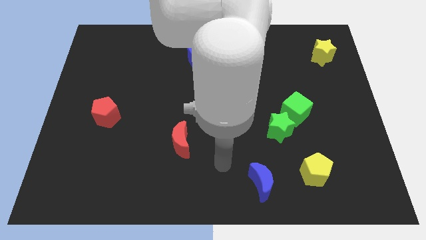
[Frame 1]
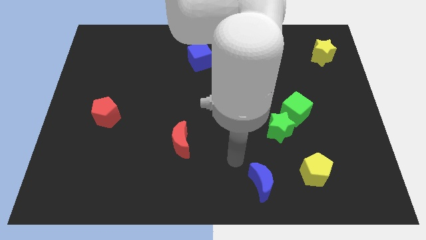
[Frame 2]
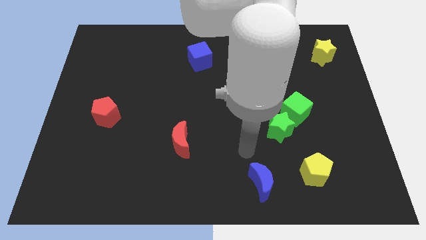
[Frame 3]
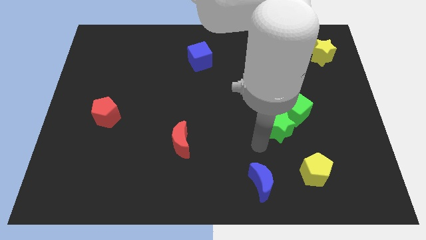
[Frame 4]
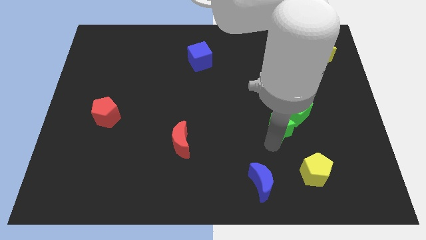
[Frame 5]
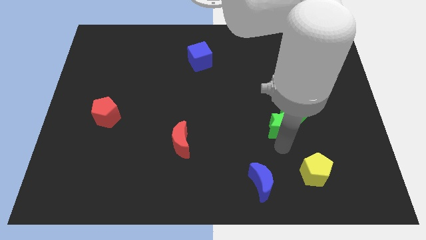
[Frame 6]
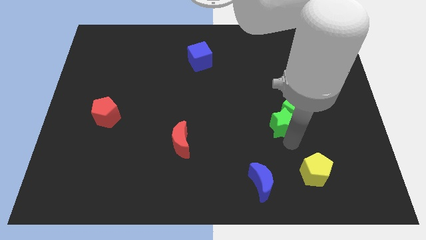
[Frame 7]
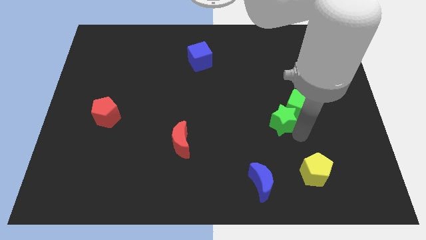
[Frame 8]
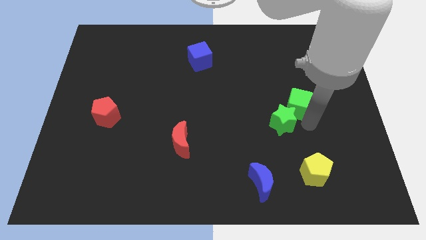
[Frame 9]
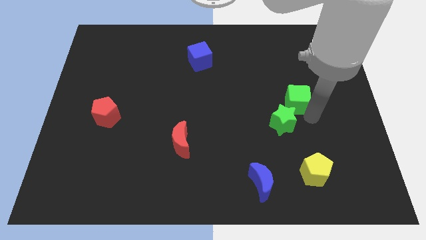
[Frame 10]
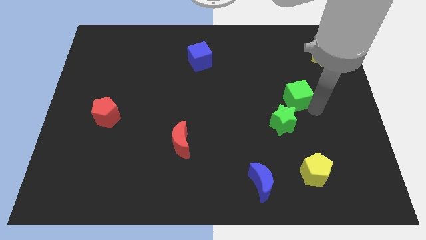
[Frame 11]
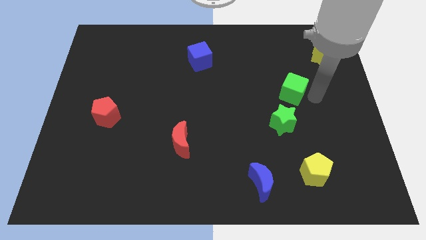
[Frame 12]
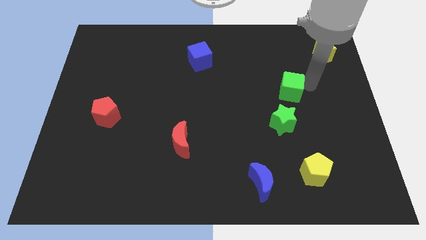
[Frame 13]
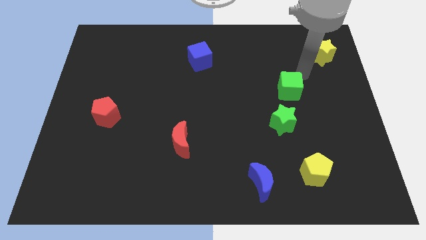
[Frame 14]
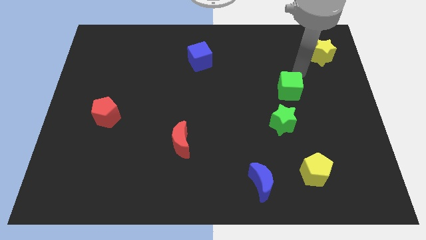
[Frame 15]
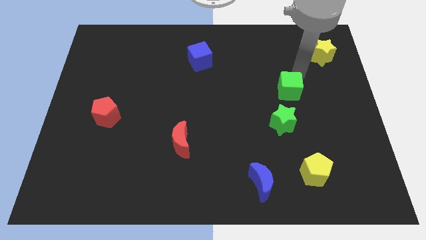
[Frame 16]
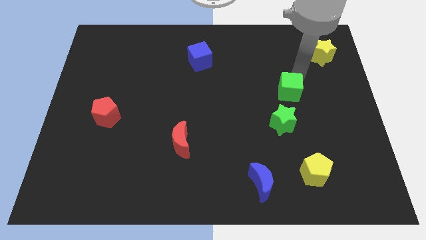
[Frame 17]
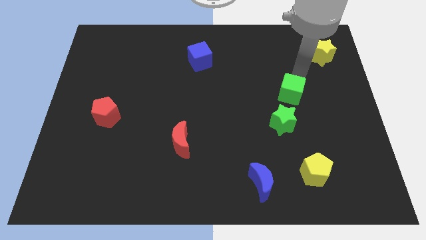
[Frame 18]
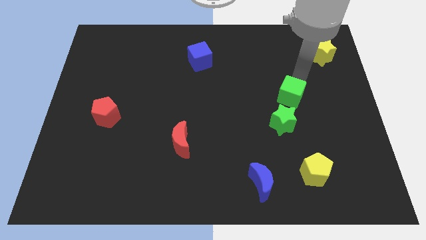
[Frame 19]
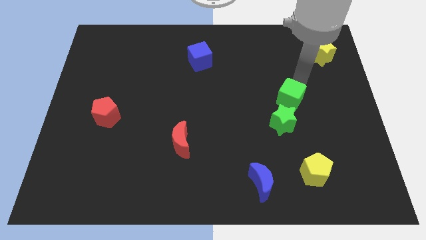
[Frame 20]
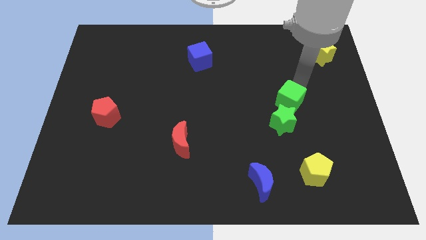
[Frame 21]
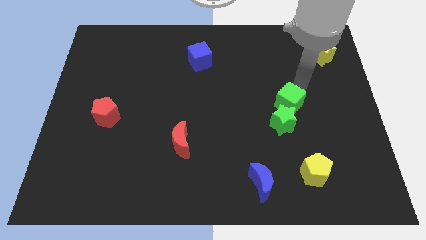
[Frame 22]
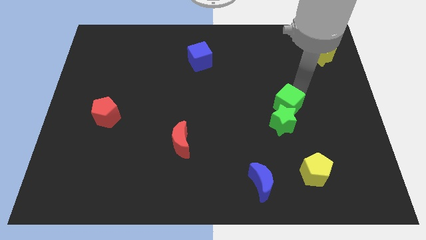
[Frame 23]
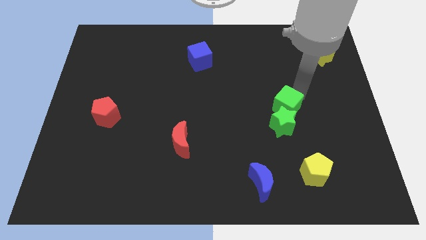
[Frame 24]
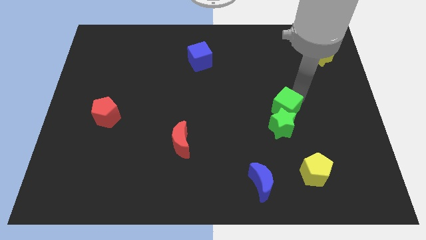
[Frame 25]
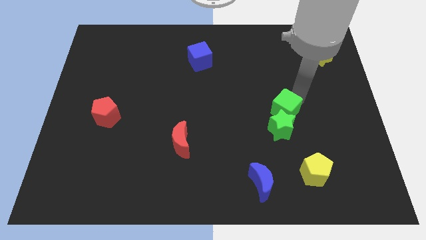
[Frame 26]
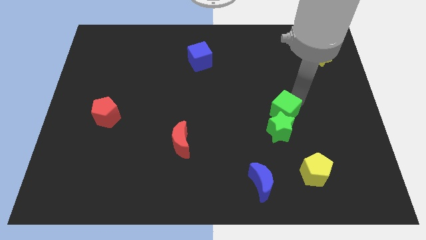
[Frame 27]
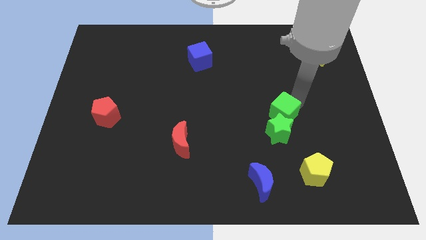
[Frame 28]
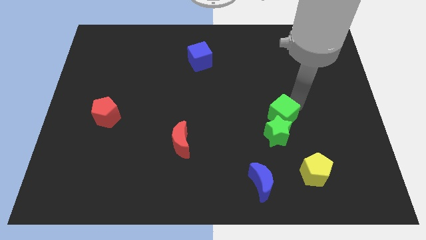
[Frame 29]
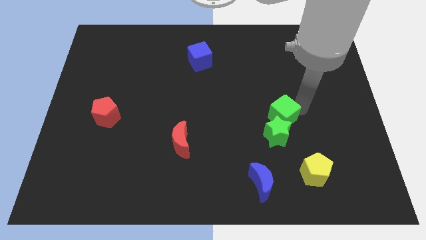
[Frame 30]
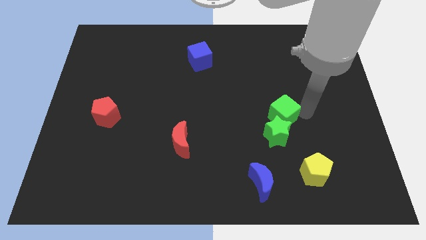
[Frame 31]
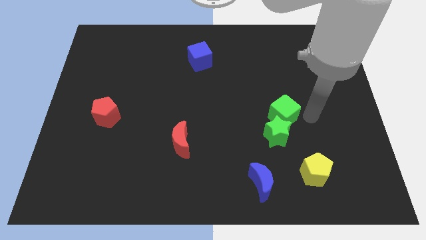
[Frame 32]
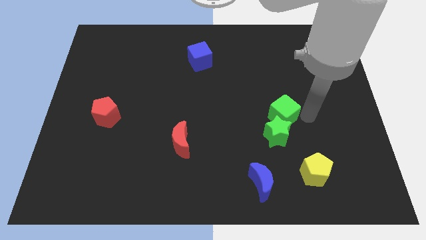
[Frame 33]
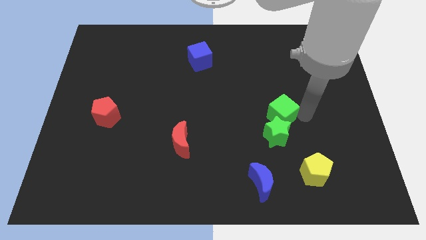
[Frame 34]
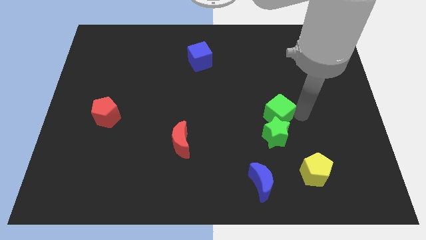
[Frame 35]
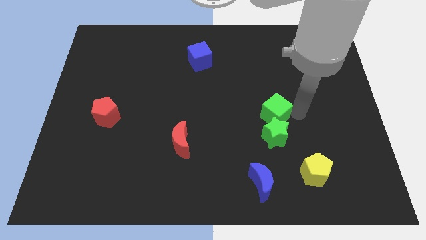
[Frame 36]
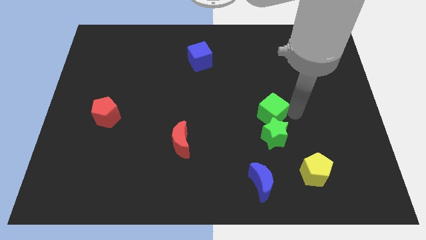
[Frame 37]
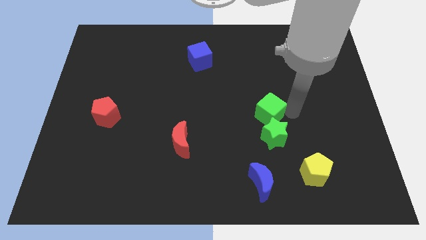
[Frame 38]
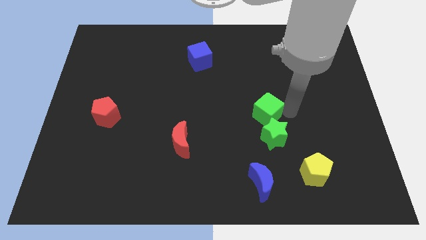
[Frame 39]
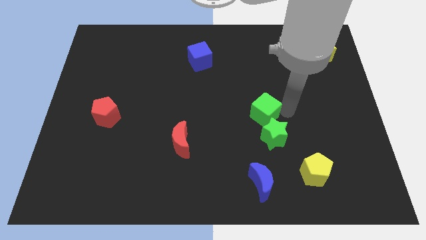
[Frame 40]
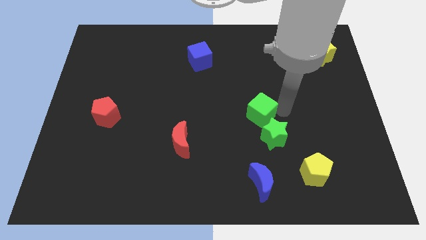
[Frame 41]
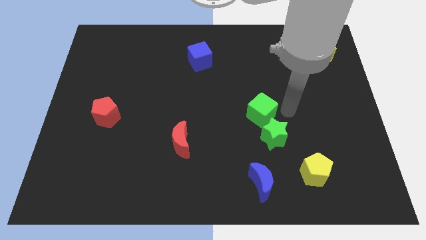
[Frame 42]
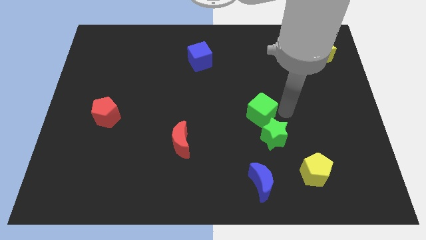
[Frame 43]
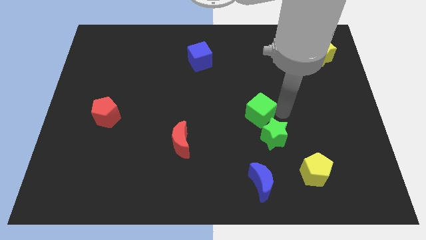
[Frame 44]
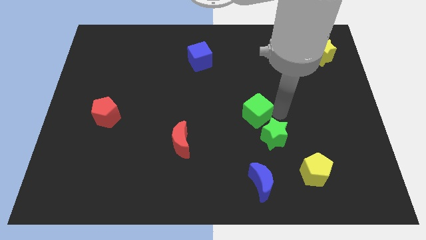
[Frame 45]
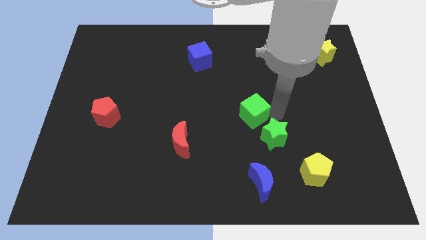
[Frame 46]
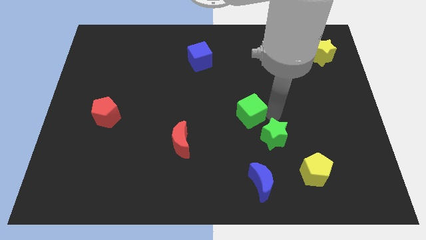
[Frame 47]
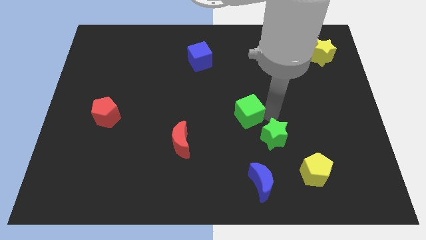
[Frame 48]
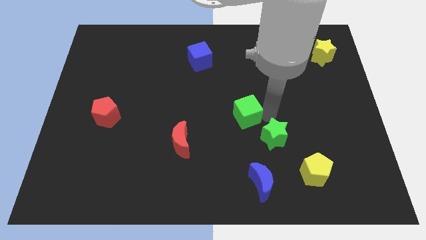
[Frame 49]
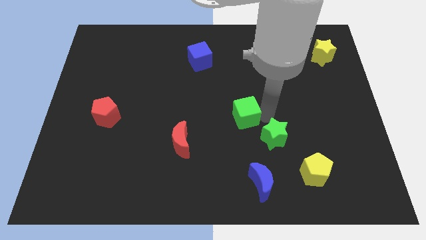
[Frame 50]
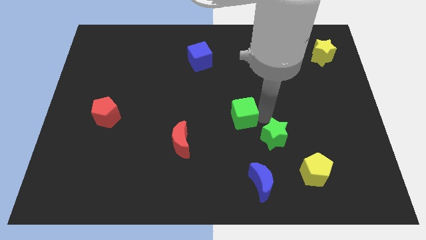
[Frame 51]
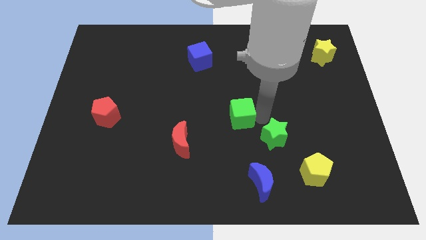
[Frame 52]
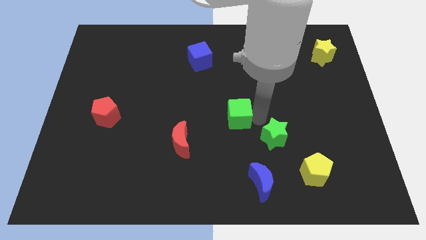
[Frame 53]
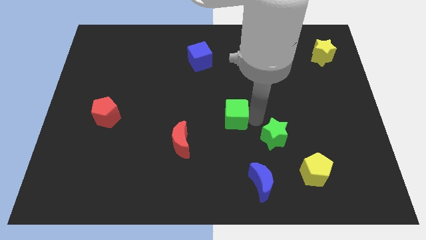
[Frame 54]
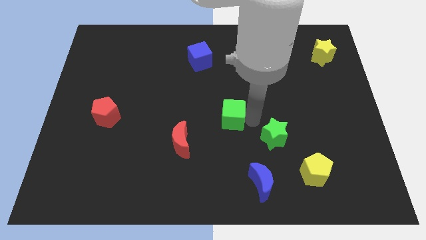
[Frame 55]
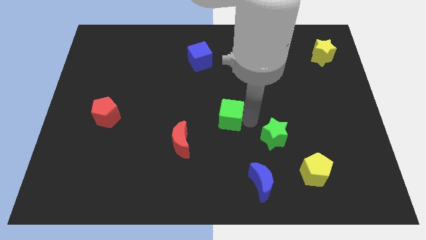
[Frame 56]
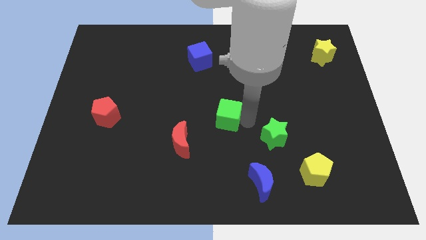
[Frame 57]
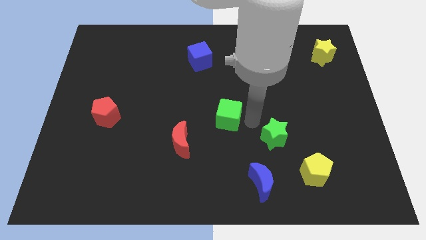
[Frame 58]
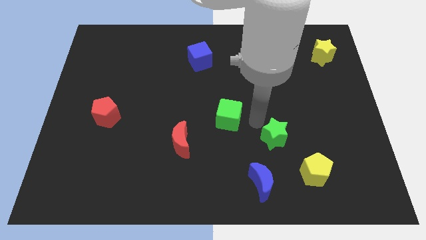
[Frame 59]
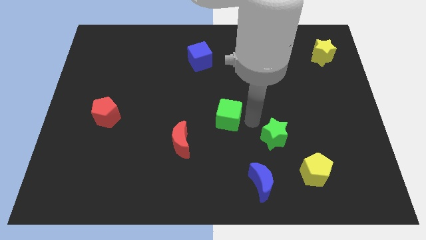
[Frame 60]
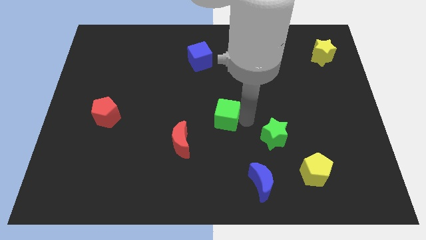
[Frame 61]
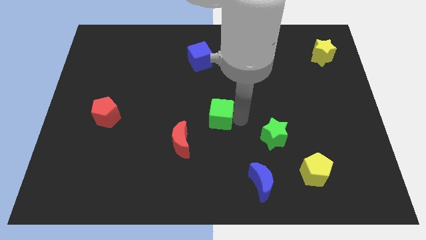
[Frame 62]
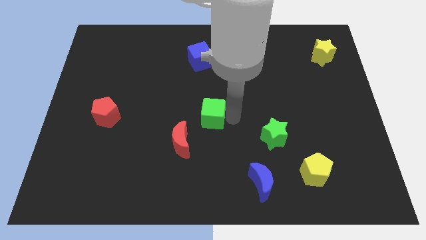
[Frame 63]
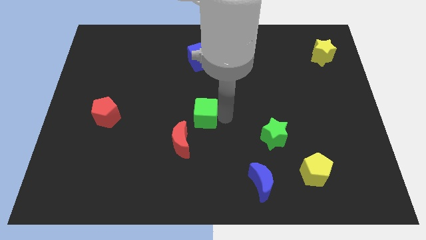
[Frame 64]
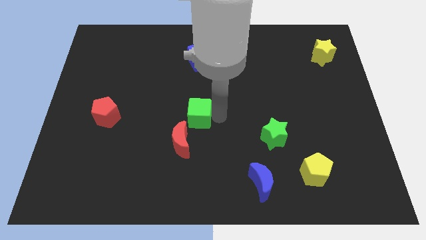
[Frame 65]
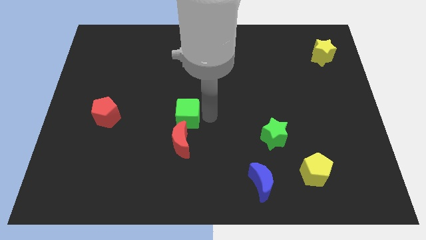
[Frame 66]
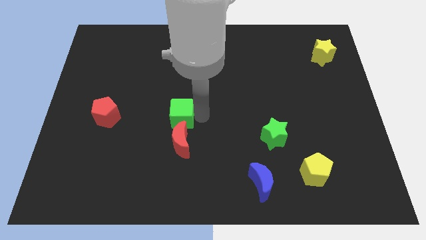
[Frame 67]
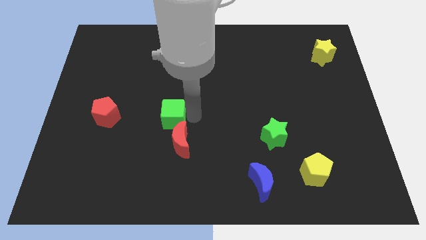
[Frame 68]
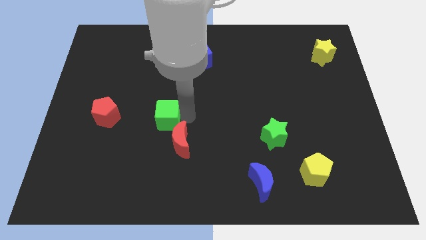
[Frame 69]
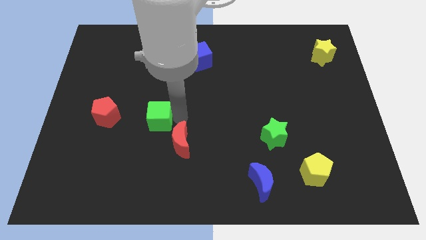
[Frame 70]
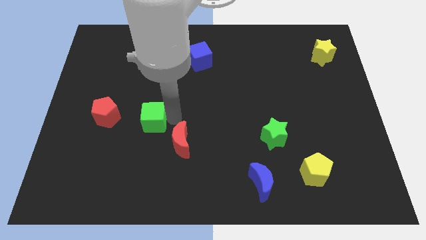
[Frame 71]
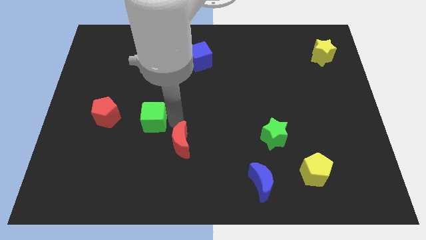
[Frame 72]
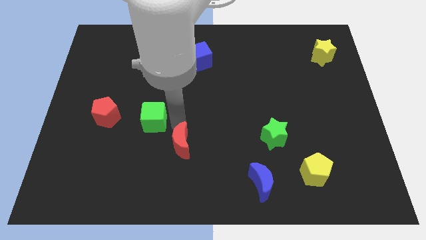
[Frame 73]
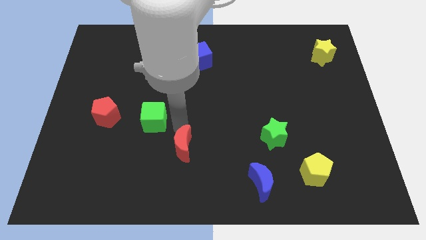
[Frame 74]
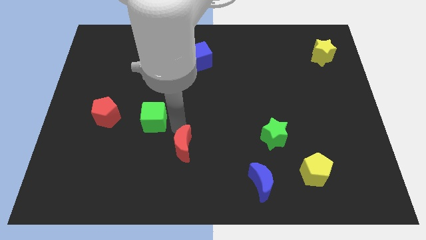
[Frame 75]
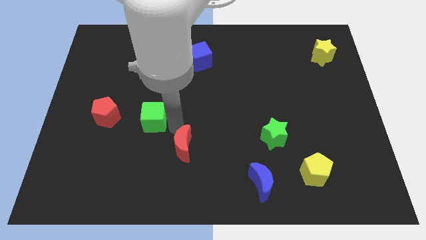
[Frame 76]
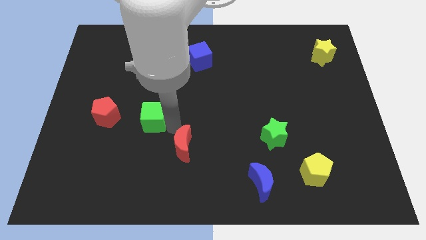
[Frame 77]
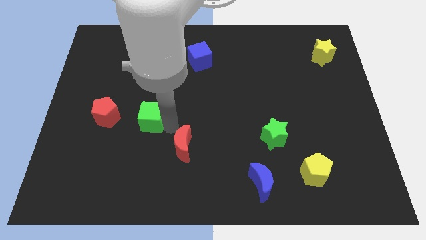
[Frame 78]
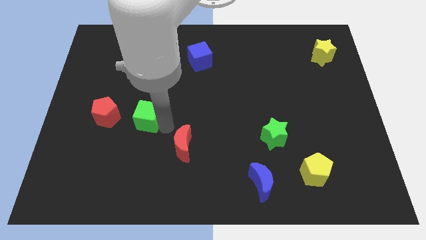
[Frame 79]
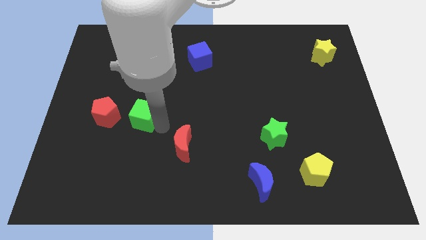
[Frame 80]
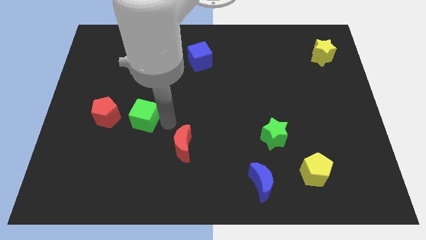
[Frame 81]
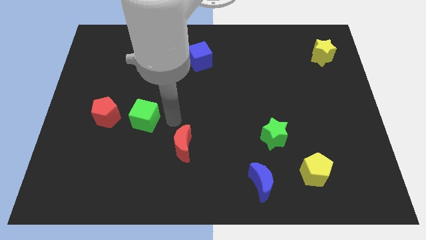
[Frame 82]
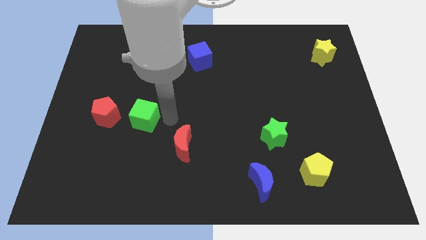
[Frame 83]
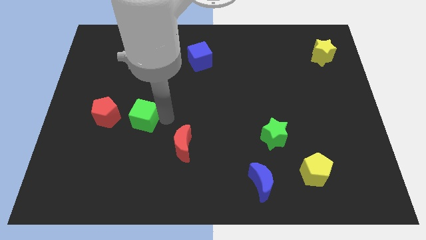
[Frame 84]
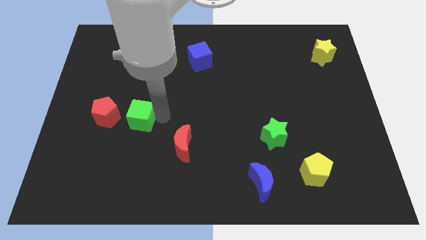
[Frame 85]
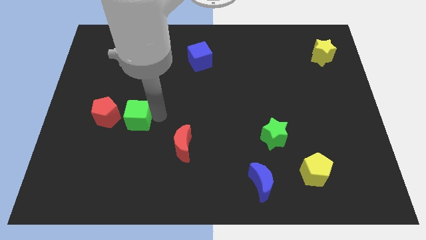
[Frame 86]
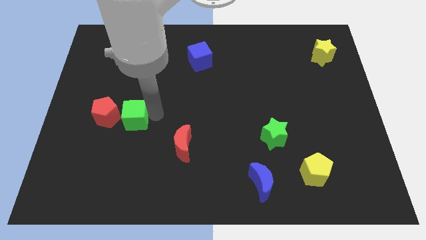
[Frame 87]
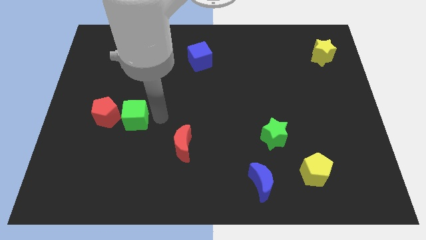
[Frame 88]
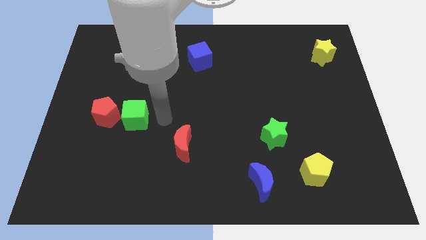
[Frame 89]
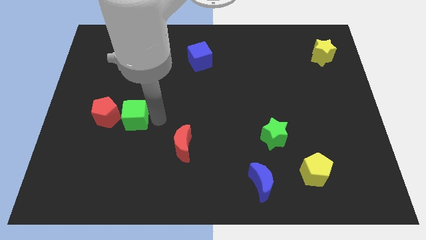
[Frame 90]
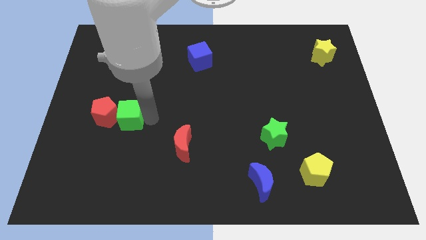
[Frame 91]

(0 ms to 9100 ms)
push the green cube next to the red pentagon
